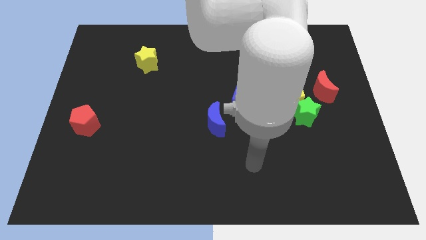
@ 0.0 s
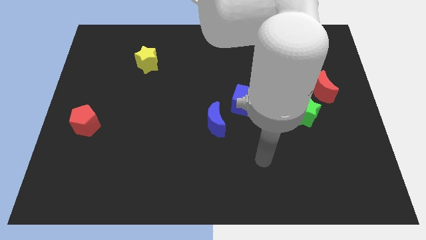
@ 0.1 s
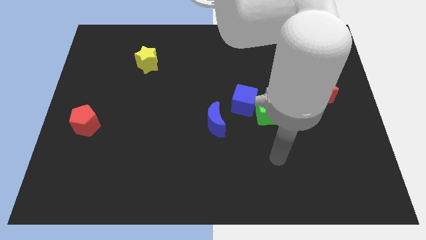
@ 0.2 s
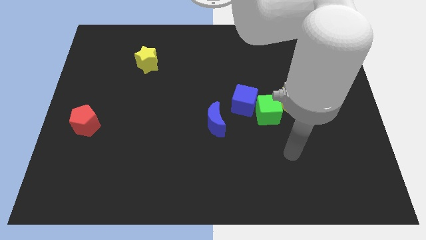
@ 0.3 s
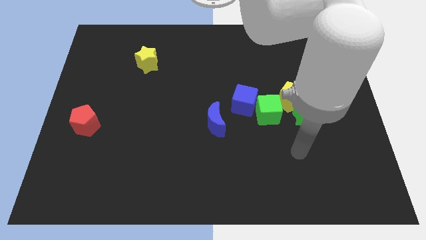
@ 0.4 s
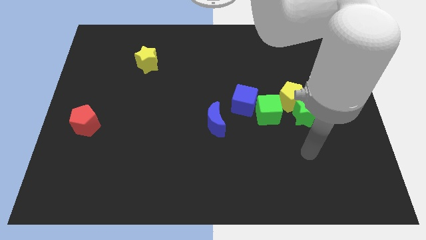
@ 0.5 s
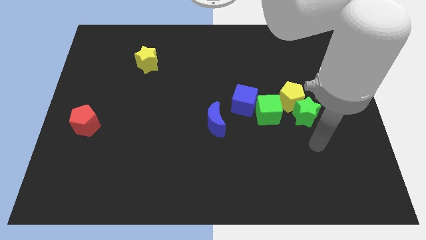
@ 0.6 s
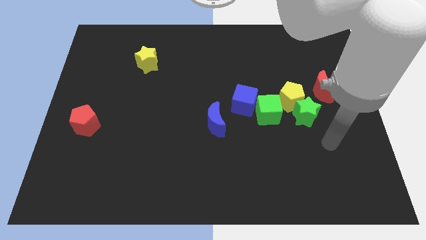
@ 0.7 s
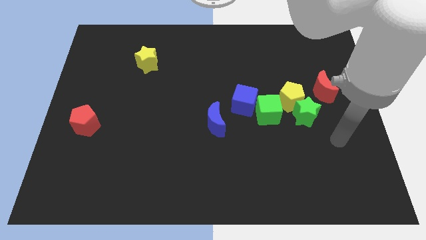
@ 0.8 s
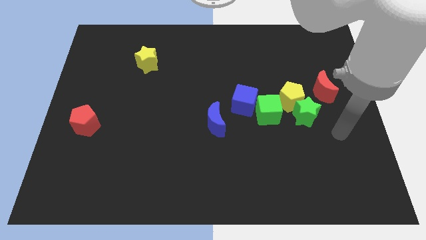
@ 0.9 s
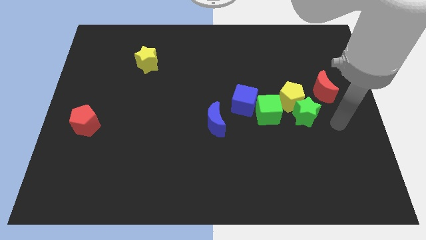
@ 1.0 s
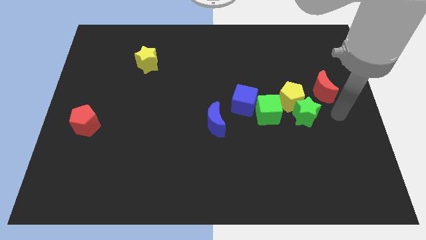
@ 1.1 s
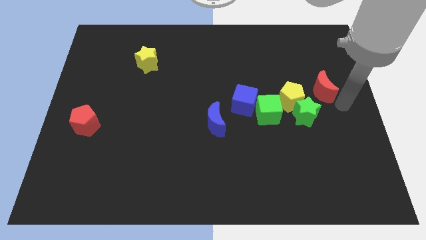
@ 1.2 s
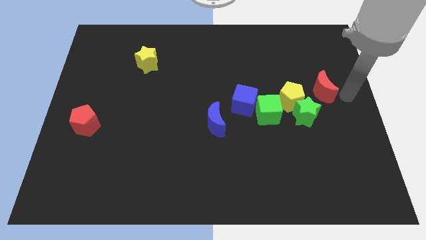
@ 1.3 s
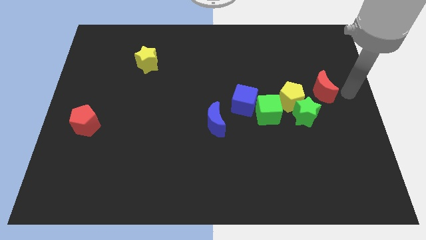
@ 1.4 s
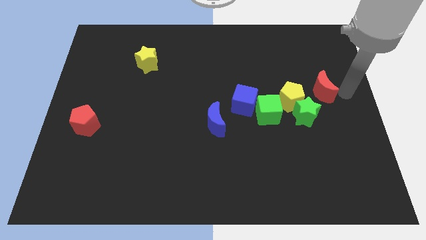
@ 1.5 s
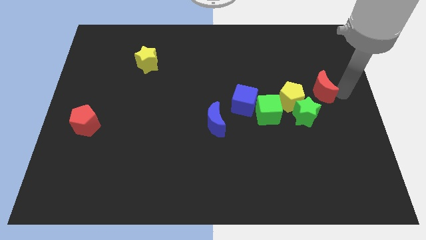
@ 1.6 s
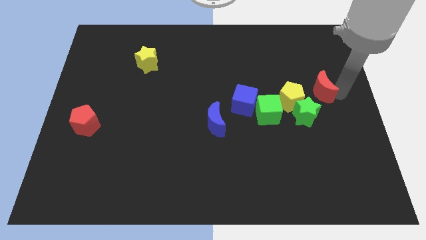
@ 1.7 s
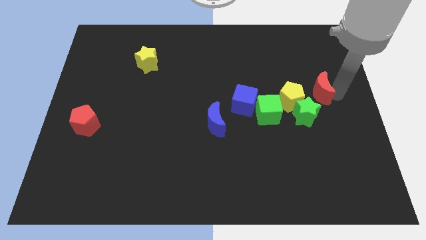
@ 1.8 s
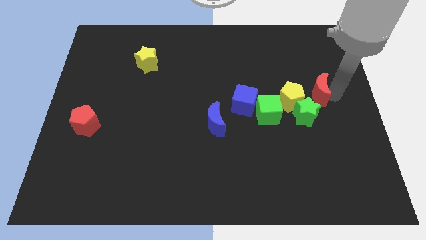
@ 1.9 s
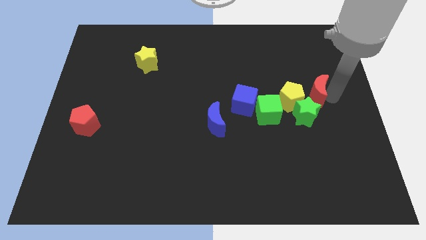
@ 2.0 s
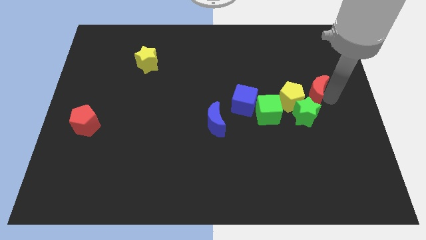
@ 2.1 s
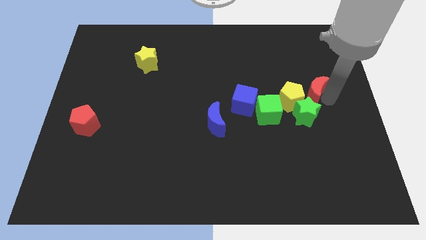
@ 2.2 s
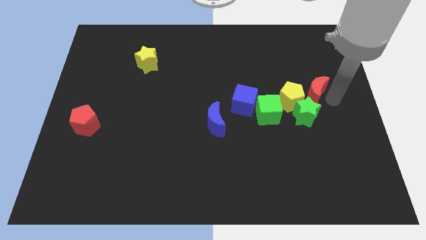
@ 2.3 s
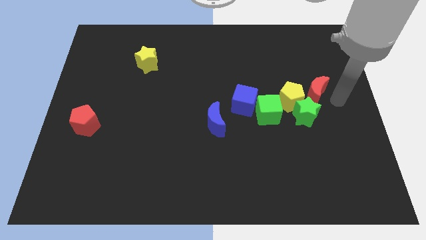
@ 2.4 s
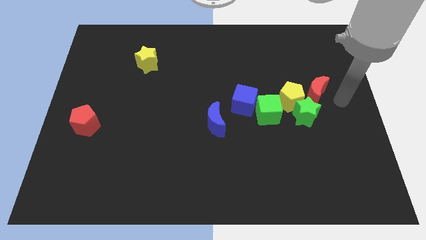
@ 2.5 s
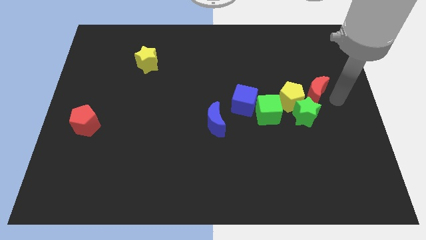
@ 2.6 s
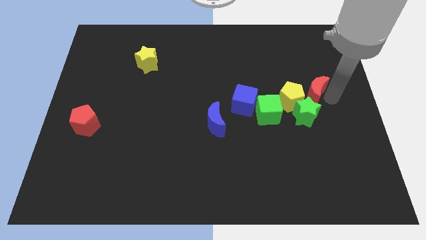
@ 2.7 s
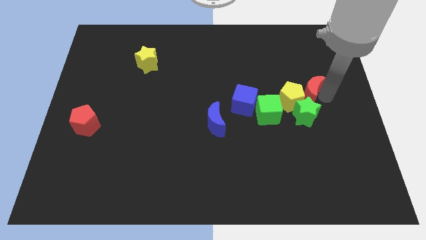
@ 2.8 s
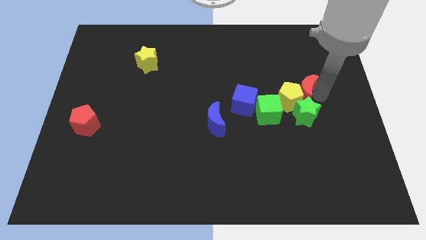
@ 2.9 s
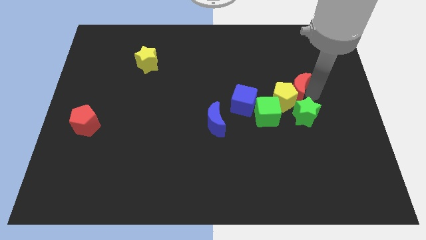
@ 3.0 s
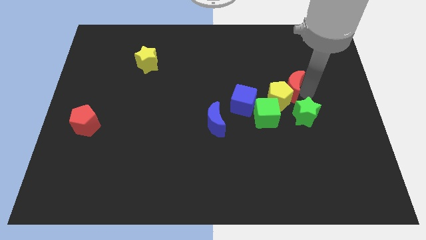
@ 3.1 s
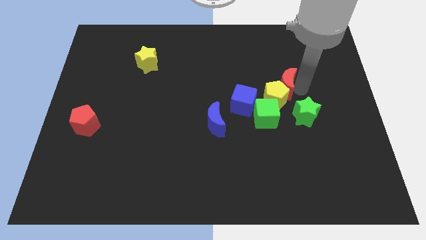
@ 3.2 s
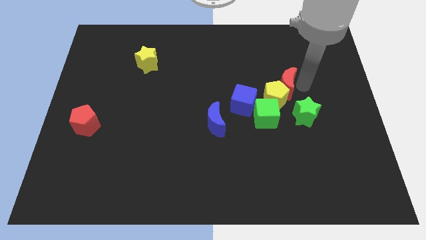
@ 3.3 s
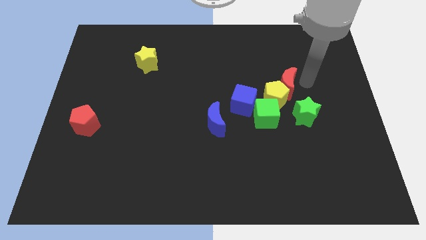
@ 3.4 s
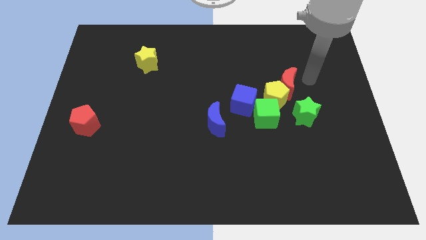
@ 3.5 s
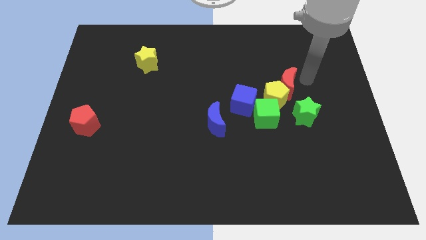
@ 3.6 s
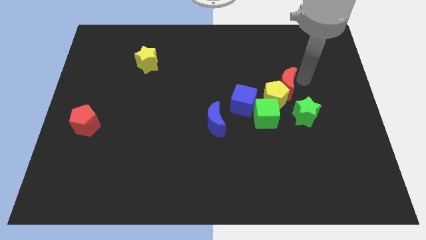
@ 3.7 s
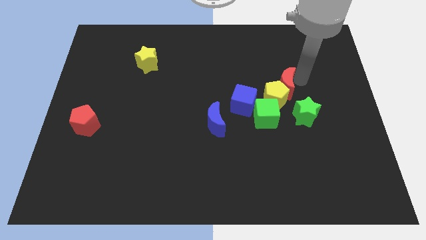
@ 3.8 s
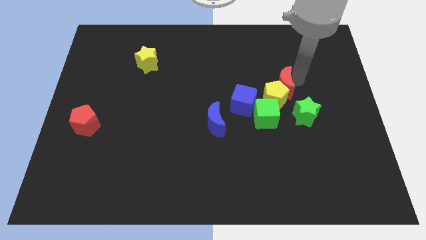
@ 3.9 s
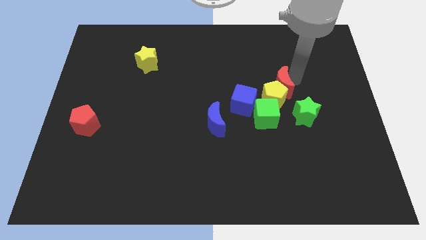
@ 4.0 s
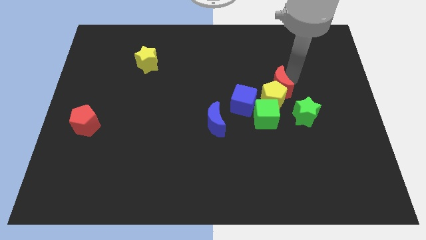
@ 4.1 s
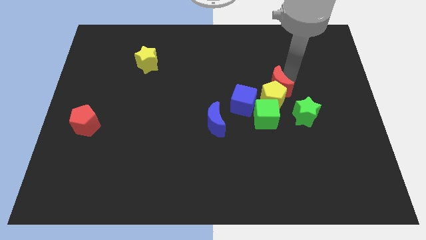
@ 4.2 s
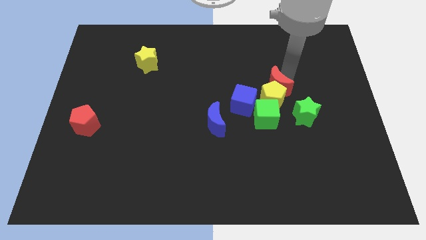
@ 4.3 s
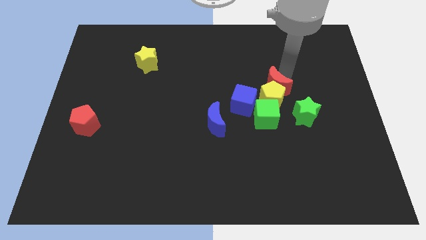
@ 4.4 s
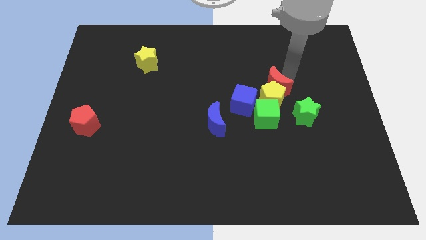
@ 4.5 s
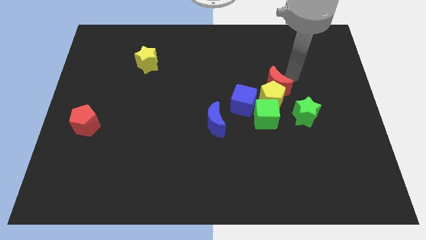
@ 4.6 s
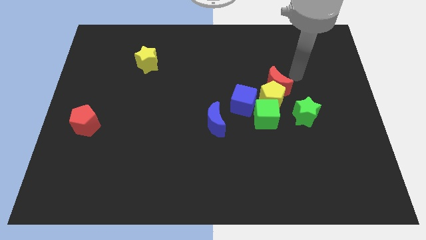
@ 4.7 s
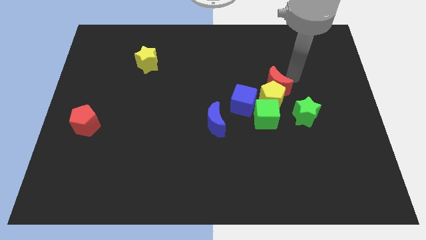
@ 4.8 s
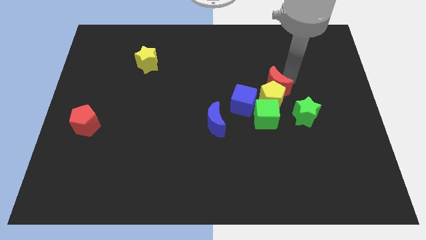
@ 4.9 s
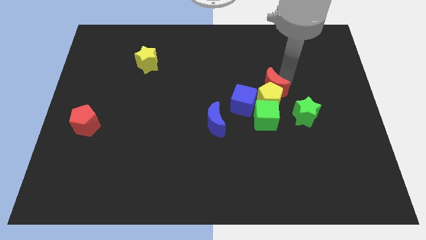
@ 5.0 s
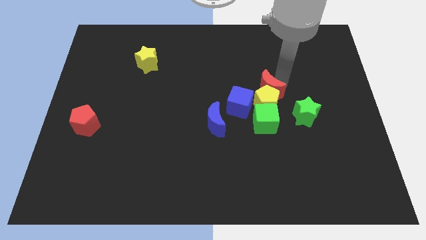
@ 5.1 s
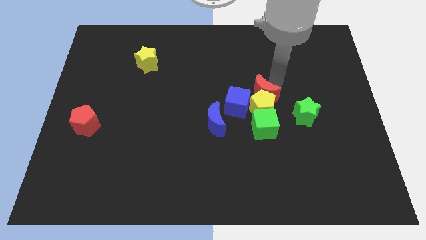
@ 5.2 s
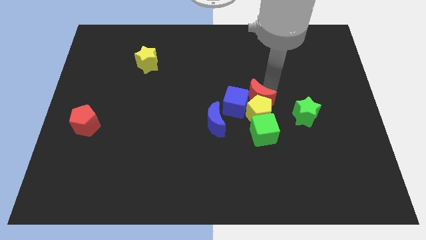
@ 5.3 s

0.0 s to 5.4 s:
push the red moon towards the blue cube

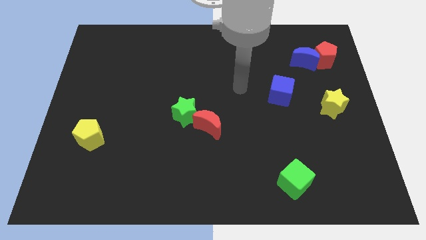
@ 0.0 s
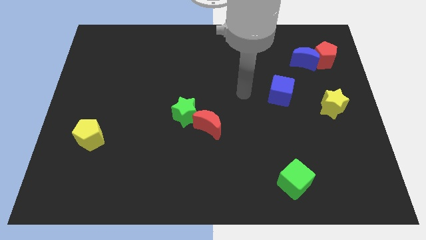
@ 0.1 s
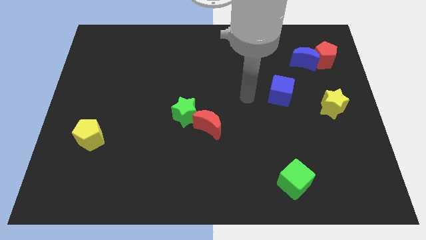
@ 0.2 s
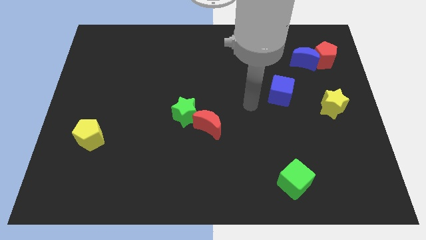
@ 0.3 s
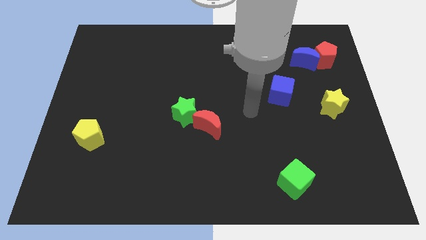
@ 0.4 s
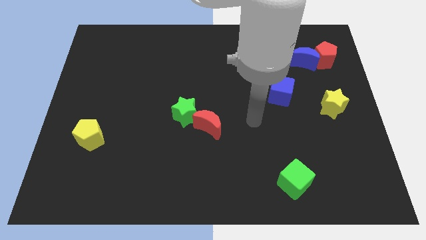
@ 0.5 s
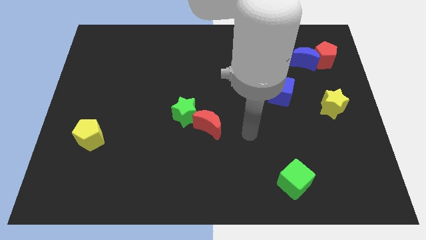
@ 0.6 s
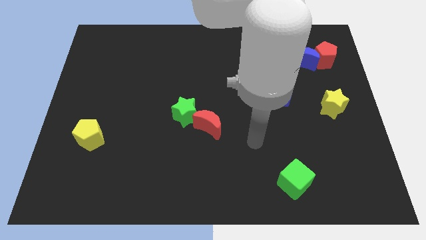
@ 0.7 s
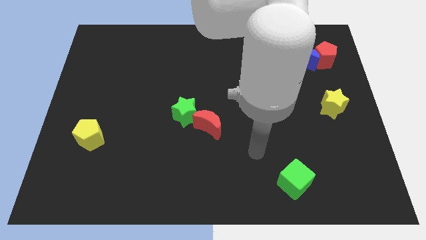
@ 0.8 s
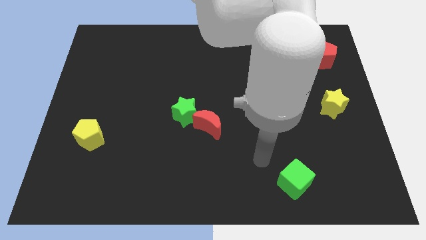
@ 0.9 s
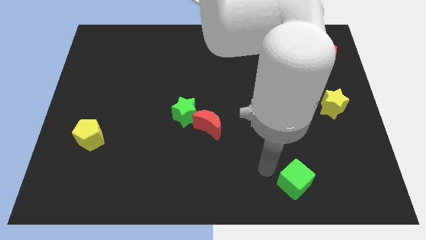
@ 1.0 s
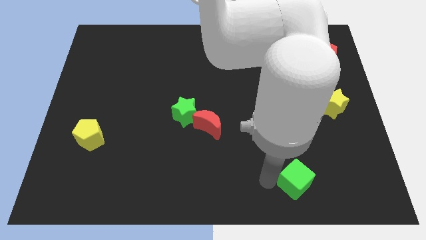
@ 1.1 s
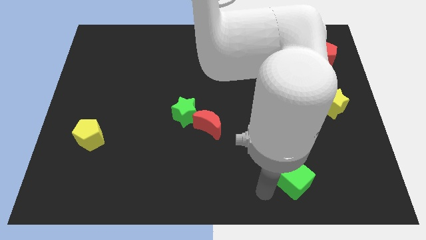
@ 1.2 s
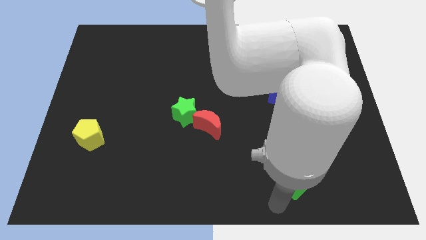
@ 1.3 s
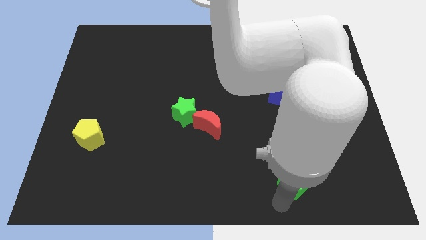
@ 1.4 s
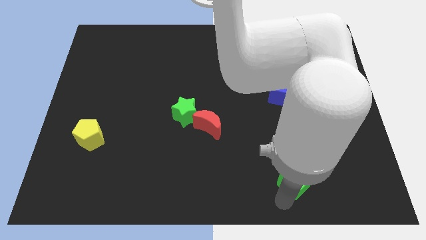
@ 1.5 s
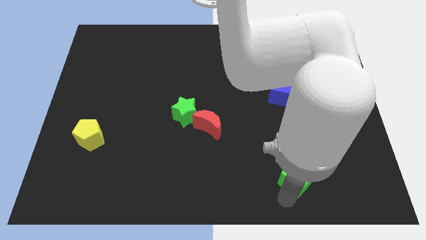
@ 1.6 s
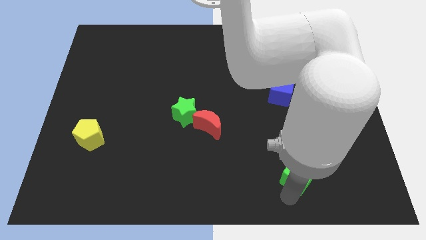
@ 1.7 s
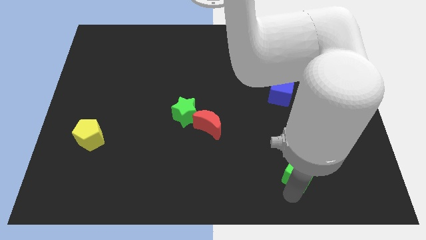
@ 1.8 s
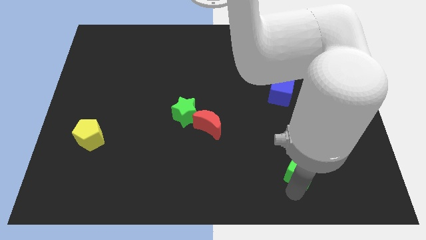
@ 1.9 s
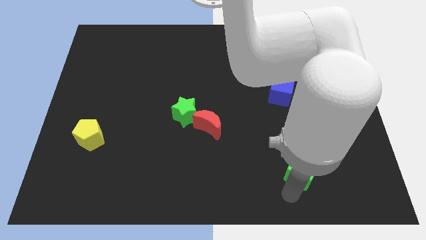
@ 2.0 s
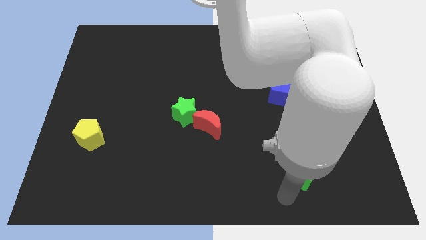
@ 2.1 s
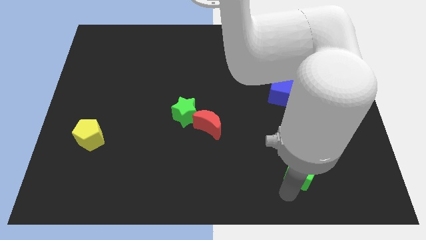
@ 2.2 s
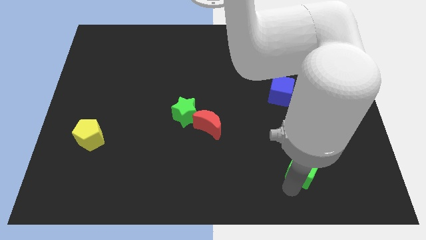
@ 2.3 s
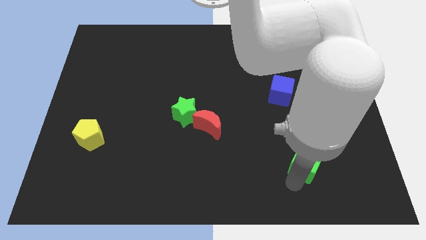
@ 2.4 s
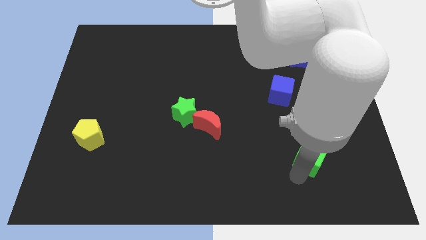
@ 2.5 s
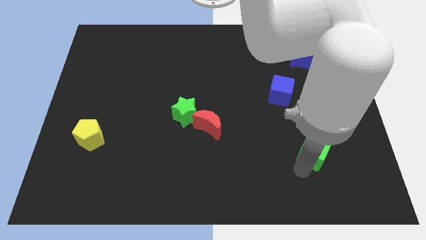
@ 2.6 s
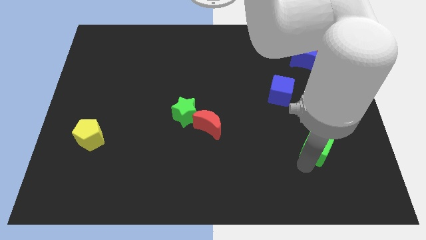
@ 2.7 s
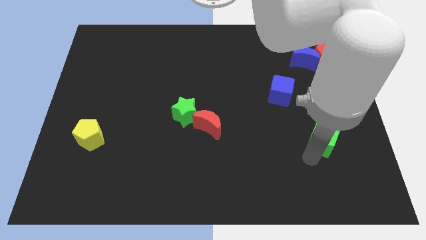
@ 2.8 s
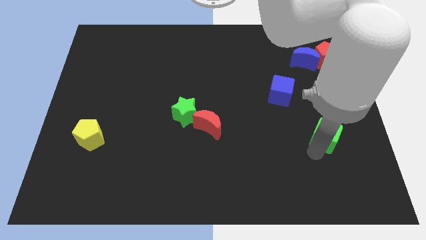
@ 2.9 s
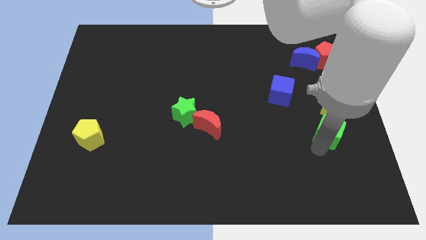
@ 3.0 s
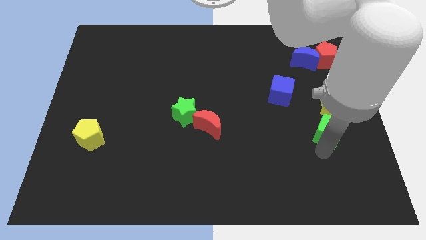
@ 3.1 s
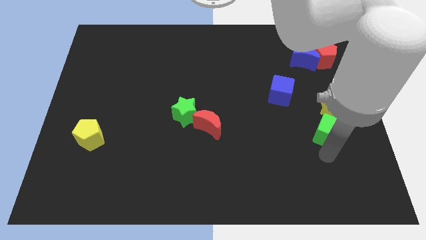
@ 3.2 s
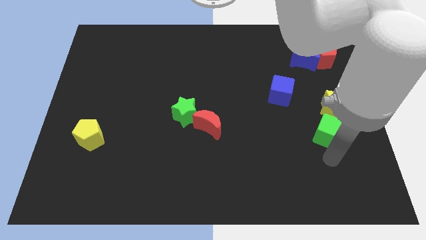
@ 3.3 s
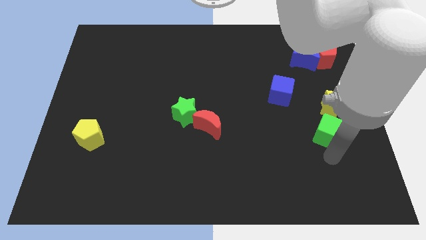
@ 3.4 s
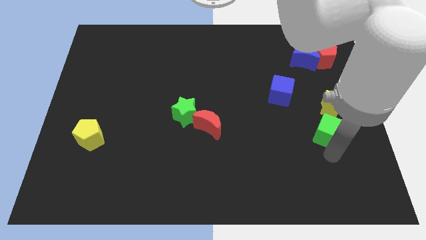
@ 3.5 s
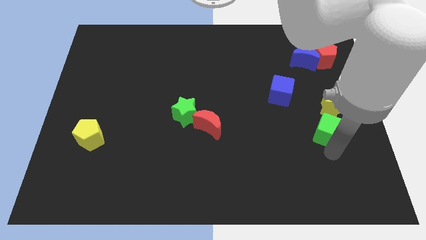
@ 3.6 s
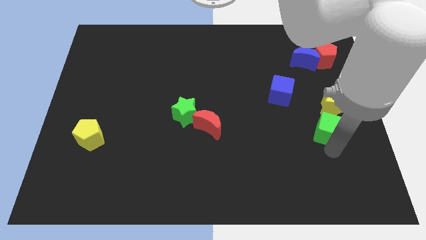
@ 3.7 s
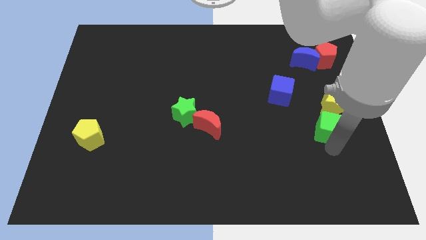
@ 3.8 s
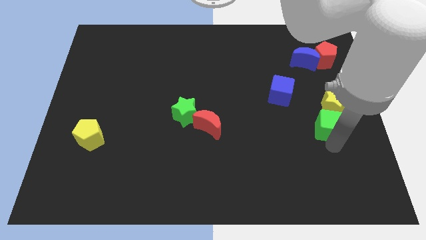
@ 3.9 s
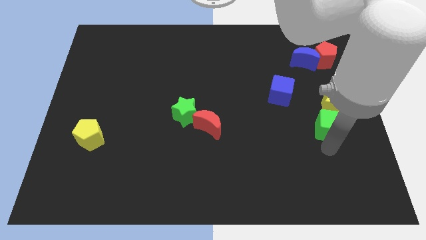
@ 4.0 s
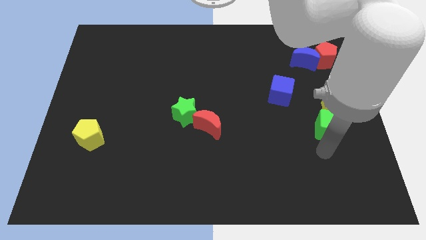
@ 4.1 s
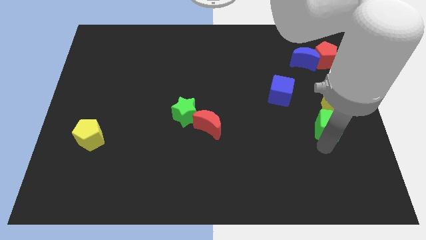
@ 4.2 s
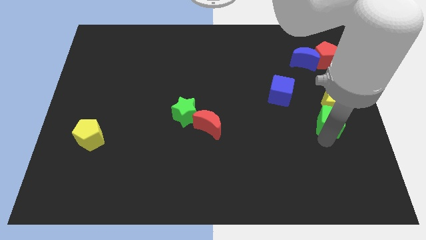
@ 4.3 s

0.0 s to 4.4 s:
put the green cube to the yellow star
